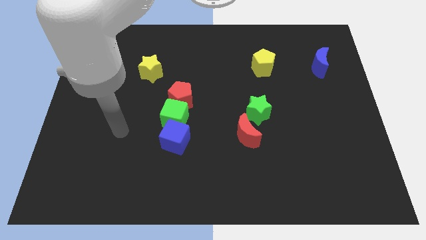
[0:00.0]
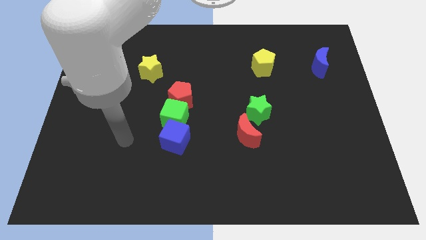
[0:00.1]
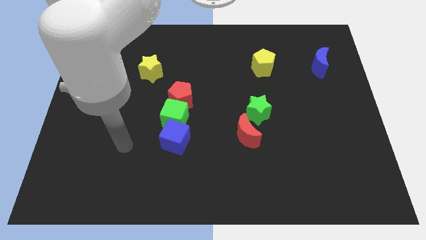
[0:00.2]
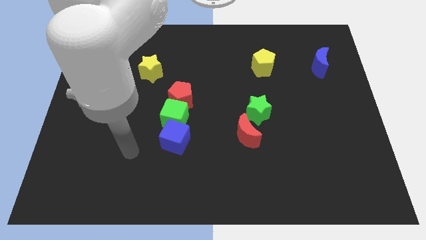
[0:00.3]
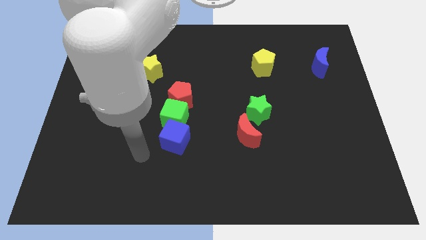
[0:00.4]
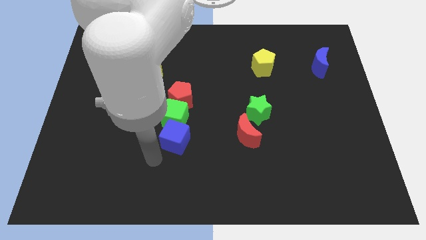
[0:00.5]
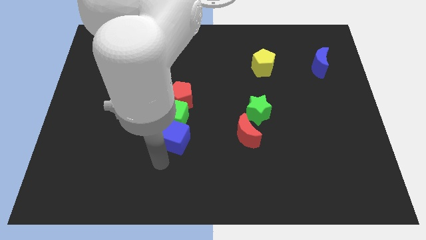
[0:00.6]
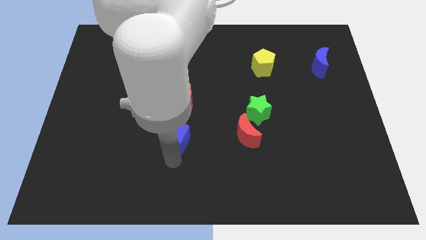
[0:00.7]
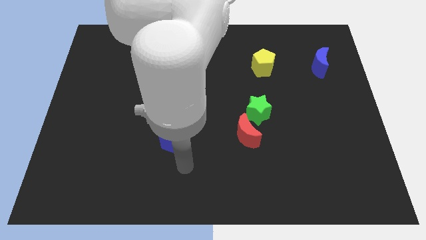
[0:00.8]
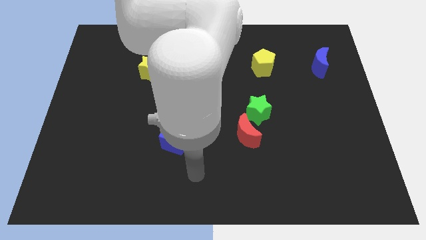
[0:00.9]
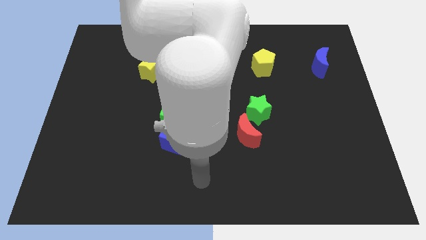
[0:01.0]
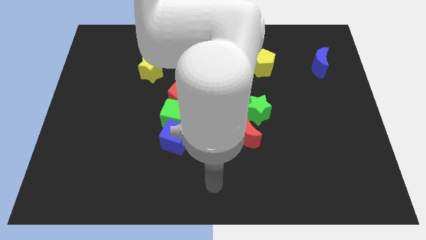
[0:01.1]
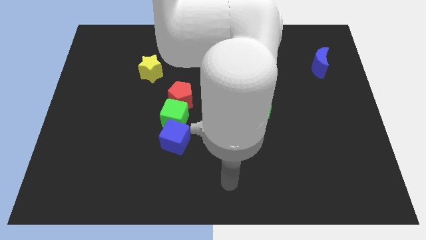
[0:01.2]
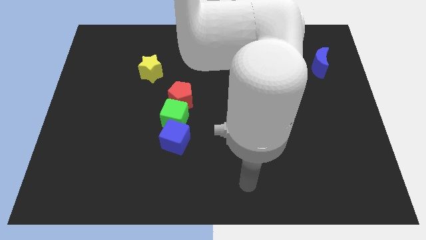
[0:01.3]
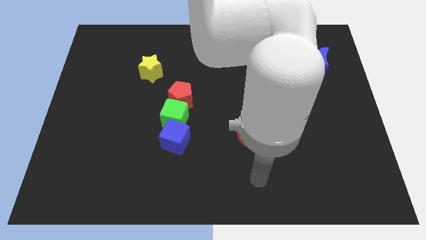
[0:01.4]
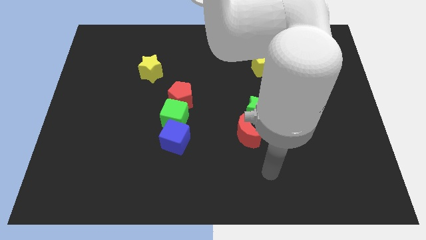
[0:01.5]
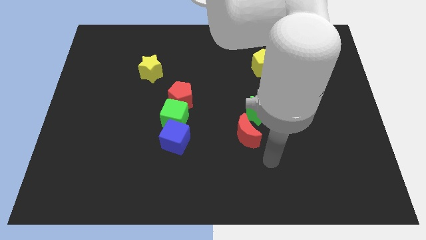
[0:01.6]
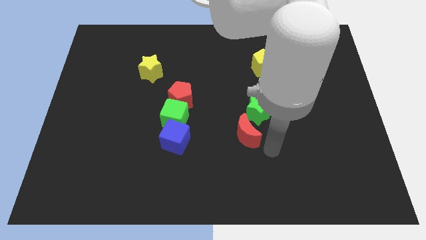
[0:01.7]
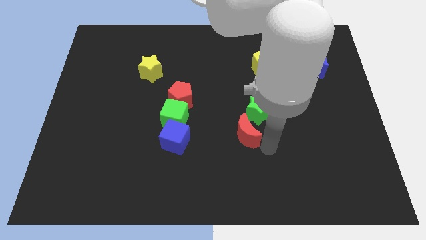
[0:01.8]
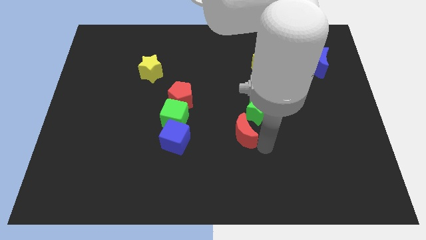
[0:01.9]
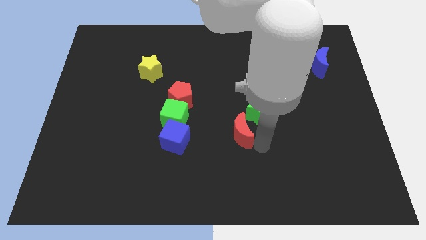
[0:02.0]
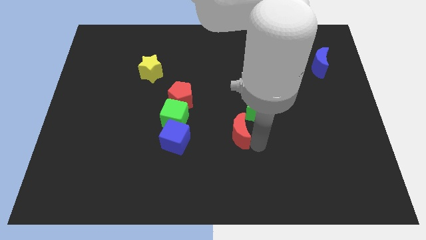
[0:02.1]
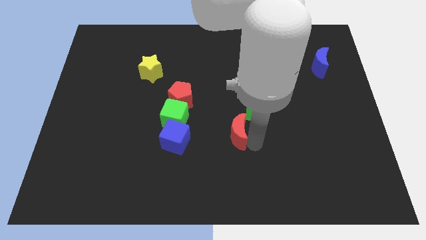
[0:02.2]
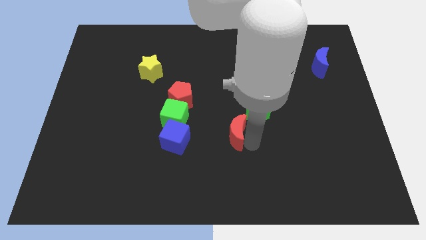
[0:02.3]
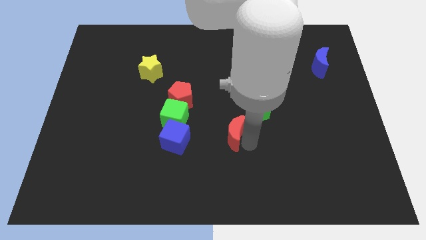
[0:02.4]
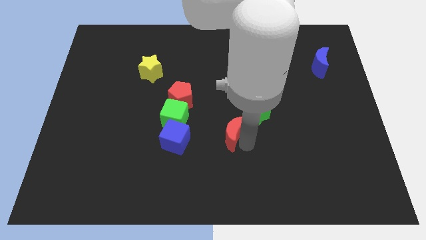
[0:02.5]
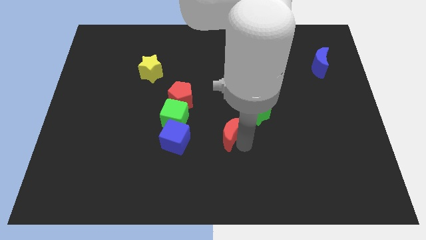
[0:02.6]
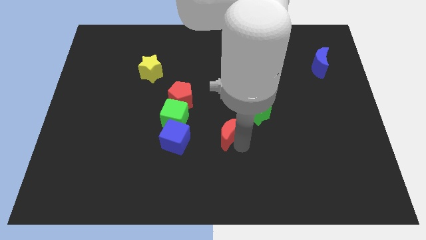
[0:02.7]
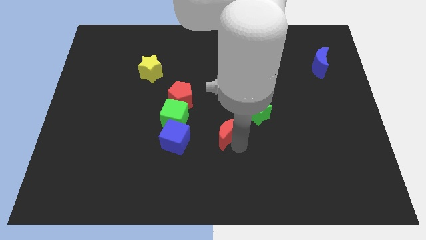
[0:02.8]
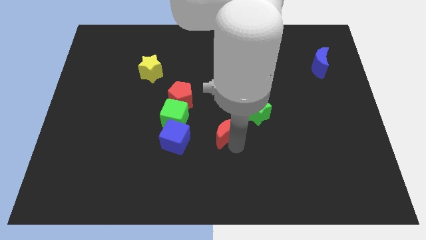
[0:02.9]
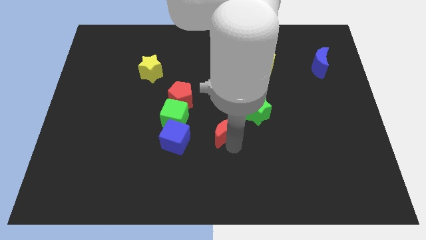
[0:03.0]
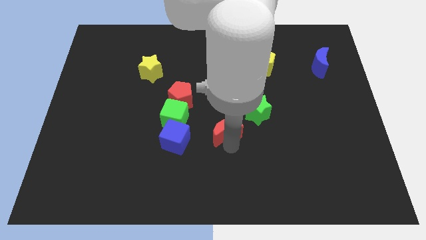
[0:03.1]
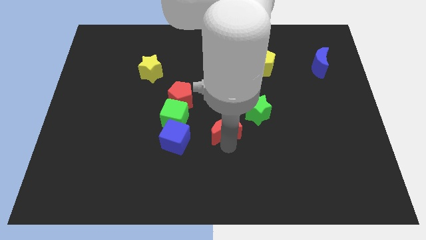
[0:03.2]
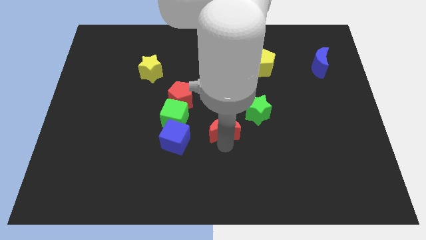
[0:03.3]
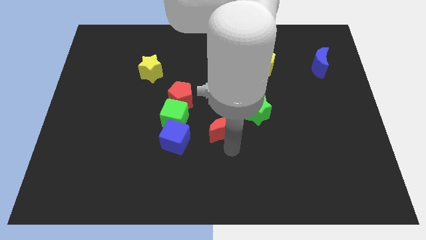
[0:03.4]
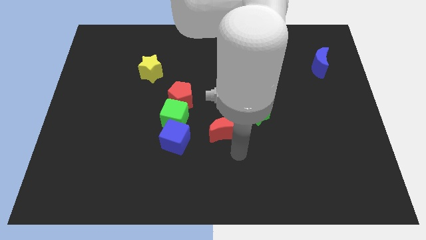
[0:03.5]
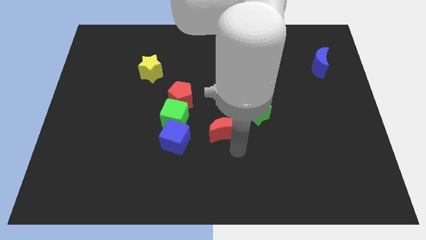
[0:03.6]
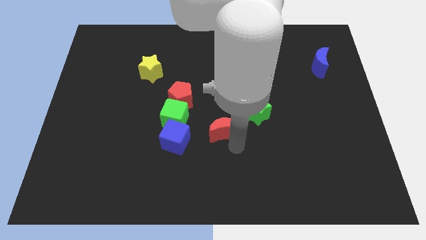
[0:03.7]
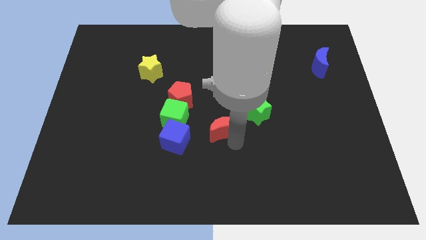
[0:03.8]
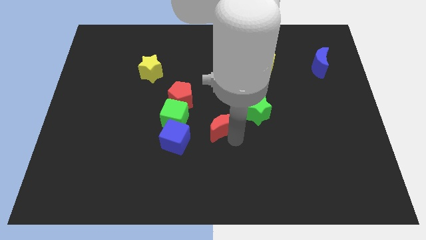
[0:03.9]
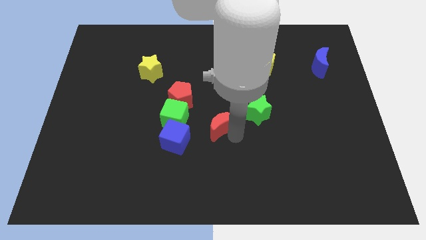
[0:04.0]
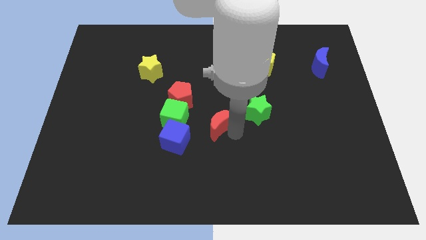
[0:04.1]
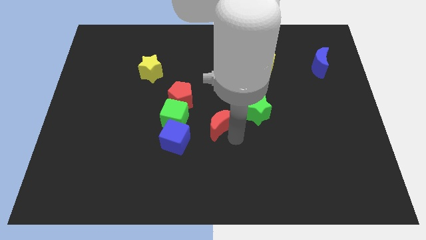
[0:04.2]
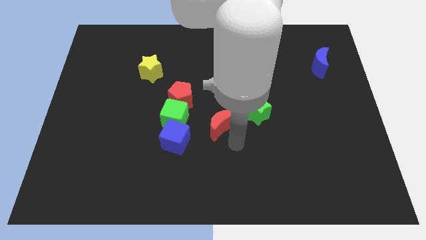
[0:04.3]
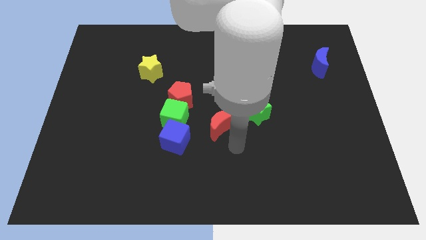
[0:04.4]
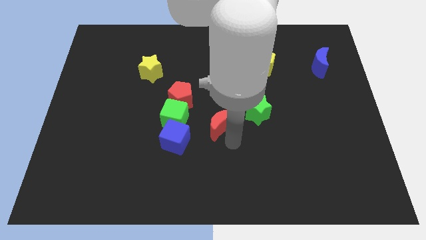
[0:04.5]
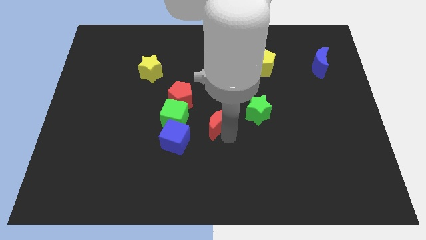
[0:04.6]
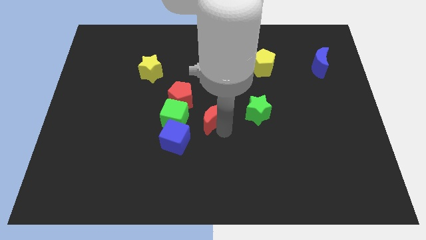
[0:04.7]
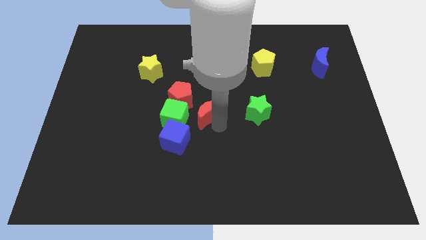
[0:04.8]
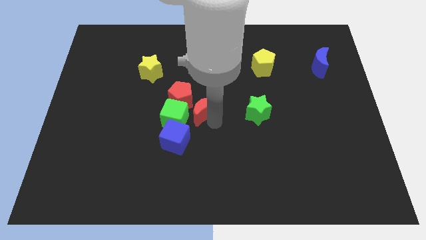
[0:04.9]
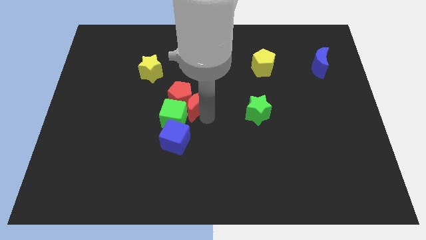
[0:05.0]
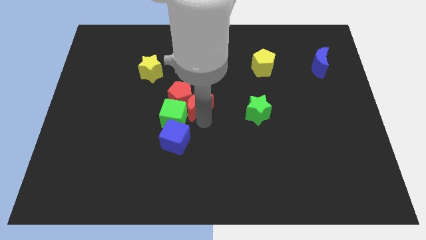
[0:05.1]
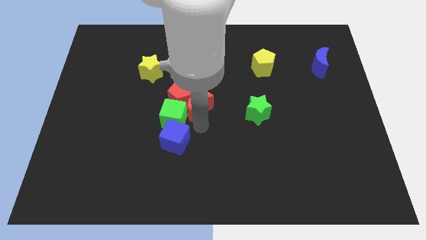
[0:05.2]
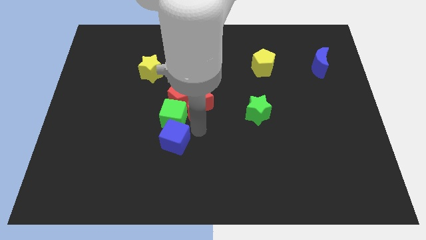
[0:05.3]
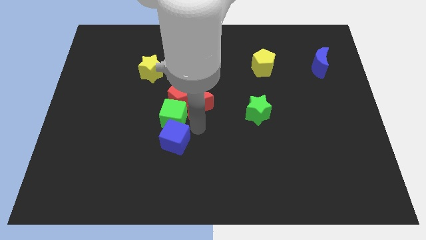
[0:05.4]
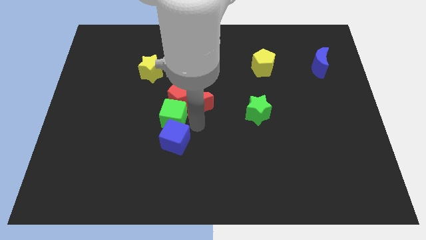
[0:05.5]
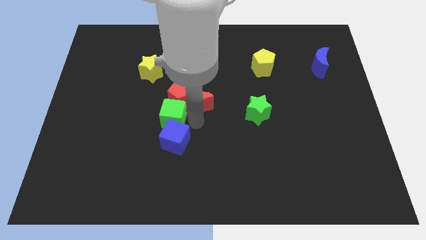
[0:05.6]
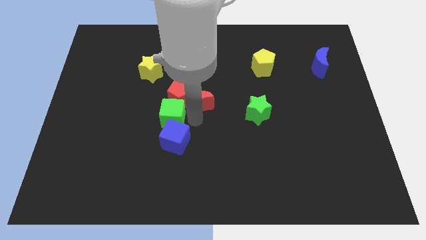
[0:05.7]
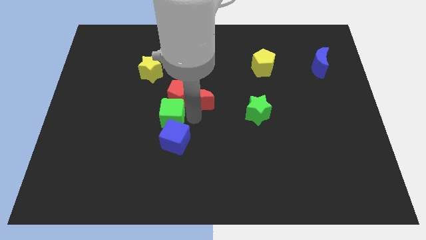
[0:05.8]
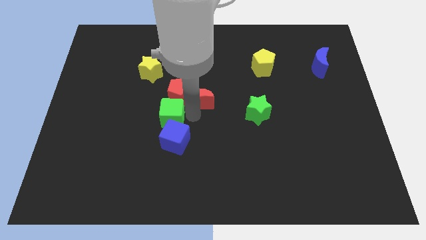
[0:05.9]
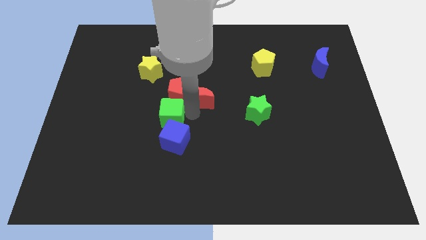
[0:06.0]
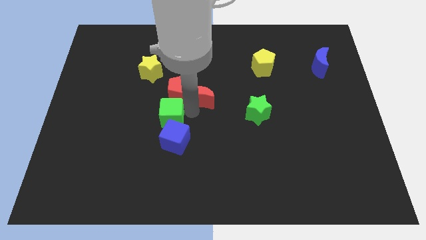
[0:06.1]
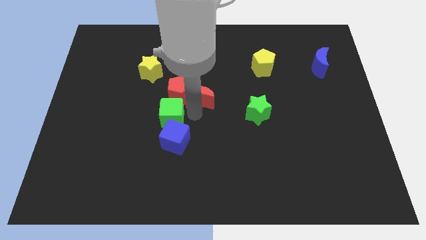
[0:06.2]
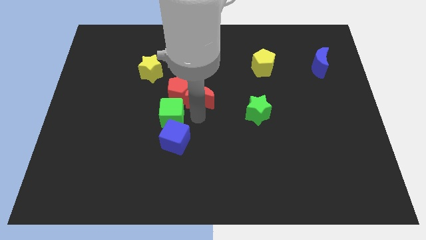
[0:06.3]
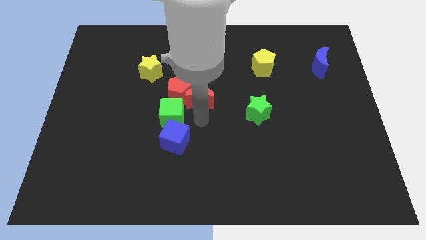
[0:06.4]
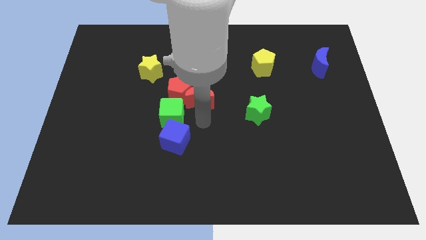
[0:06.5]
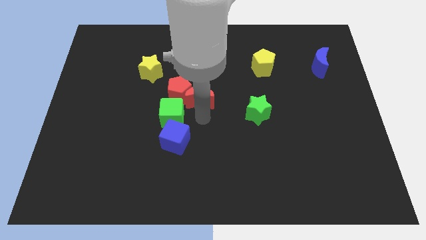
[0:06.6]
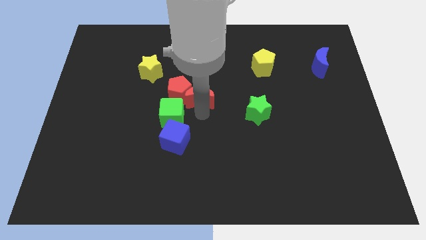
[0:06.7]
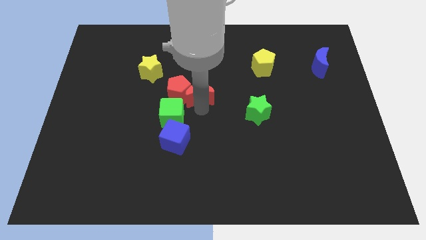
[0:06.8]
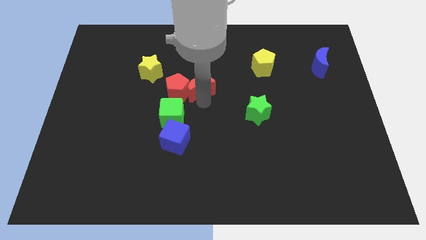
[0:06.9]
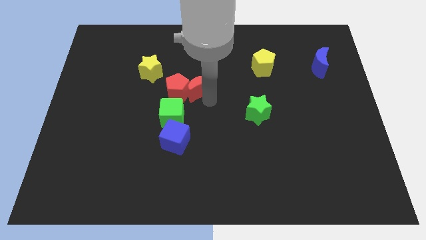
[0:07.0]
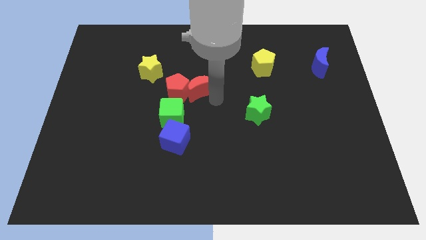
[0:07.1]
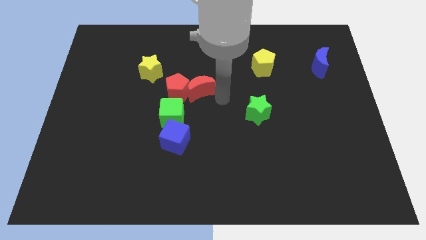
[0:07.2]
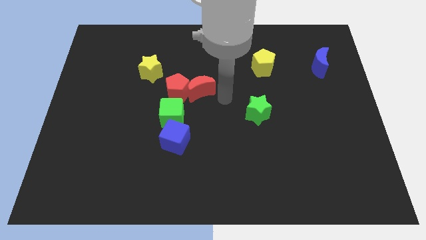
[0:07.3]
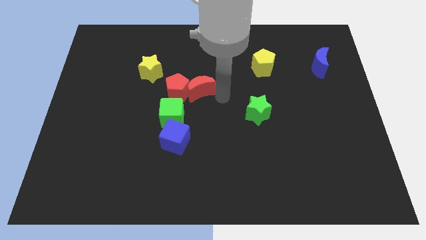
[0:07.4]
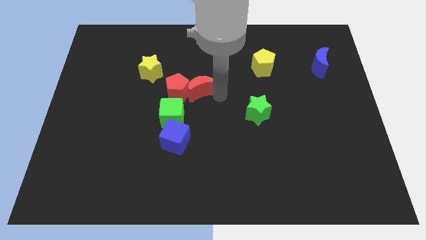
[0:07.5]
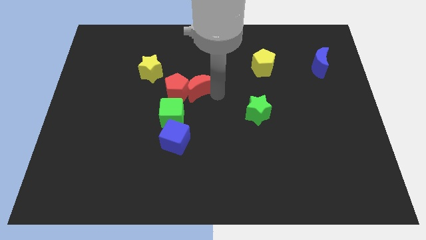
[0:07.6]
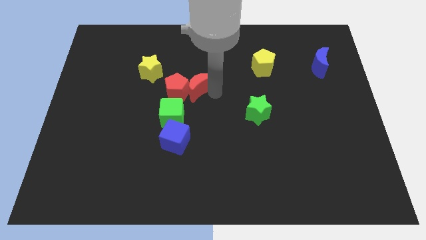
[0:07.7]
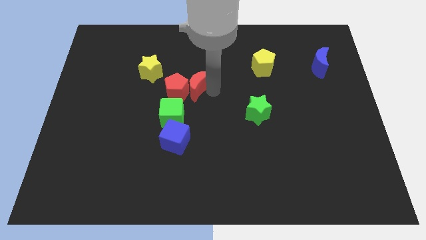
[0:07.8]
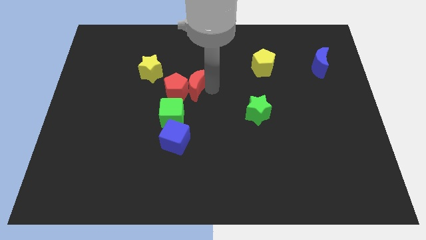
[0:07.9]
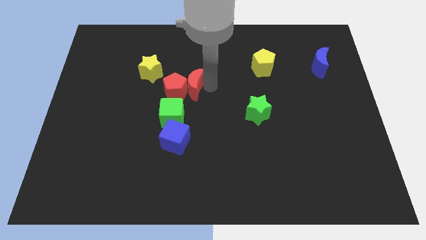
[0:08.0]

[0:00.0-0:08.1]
move the red moon to the top side of the green cube
